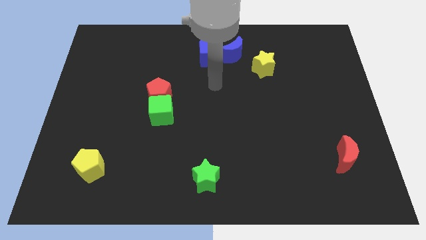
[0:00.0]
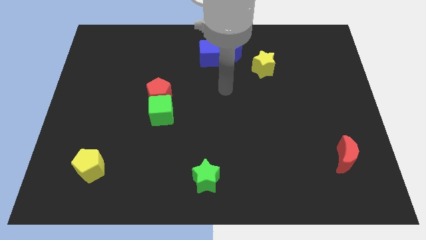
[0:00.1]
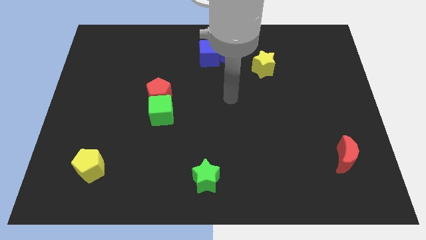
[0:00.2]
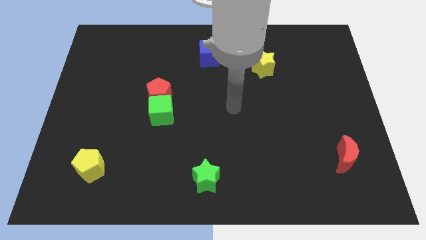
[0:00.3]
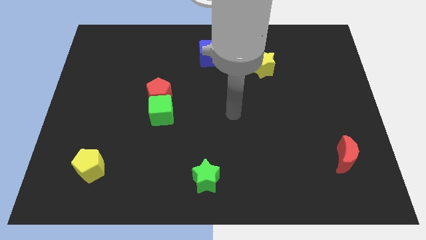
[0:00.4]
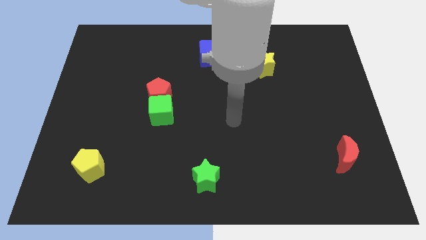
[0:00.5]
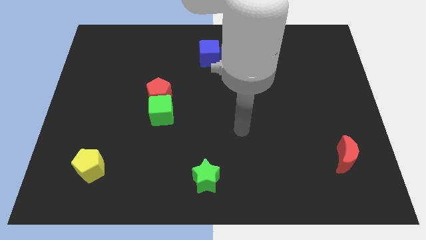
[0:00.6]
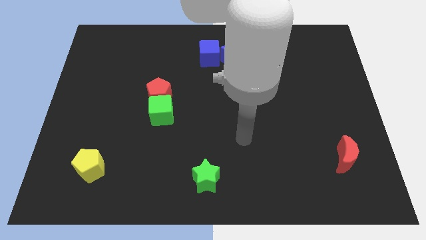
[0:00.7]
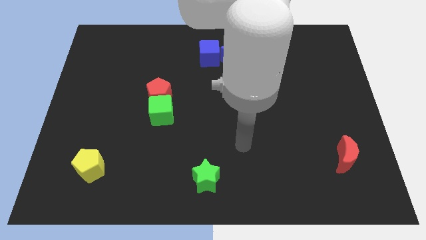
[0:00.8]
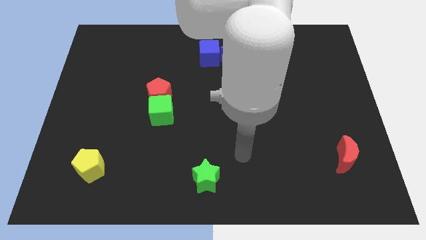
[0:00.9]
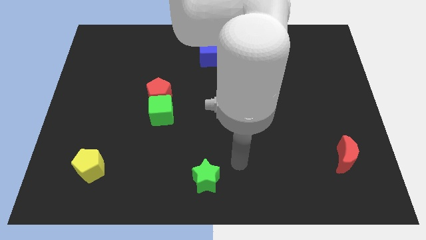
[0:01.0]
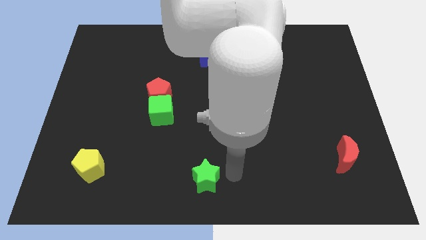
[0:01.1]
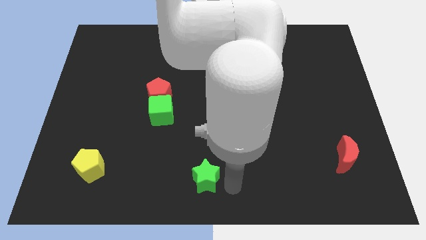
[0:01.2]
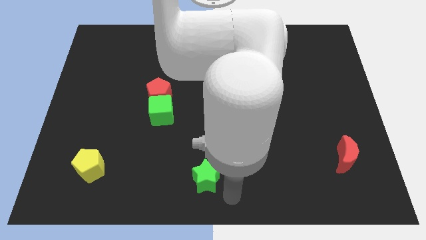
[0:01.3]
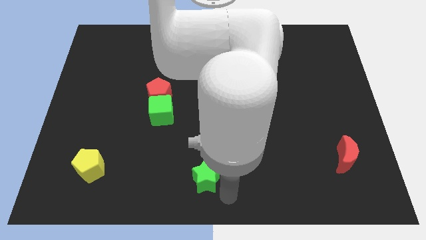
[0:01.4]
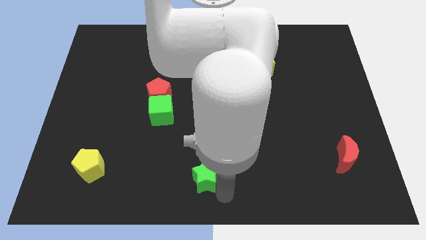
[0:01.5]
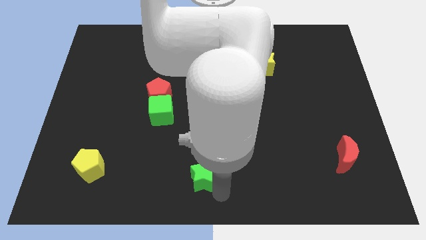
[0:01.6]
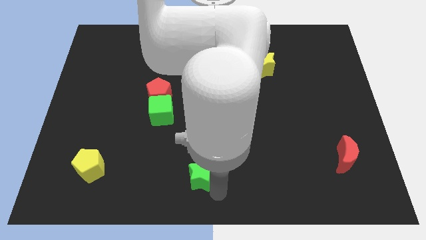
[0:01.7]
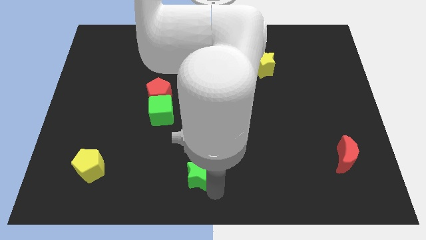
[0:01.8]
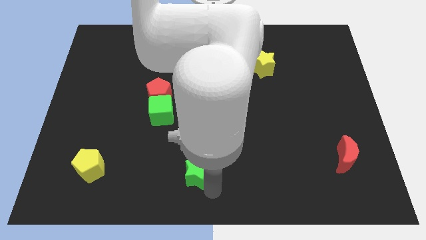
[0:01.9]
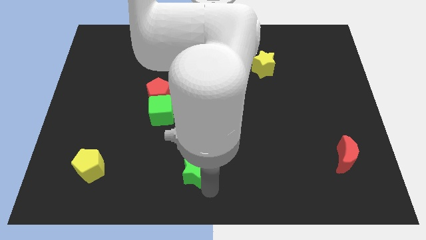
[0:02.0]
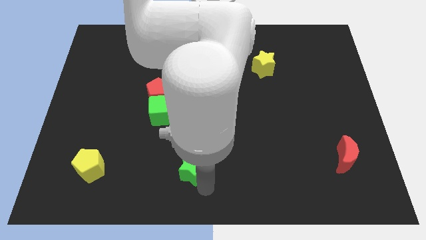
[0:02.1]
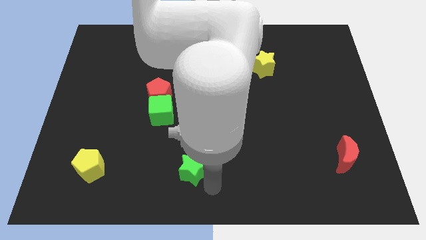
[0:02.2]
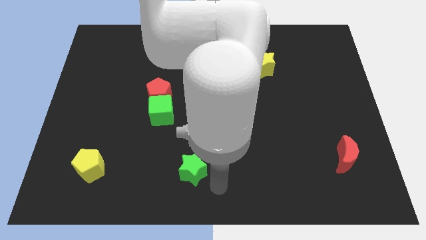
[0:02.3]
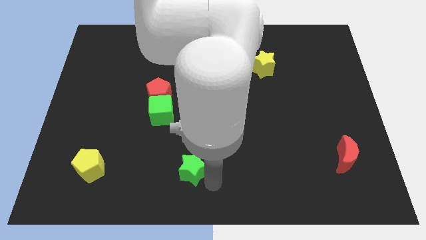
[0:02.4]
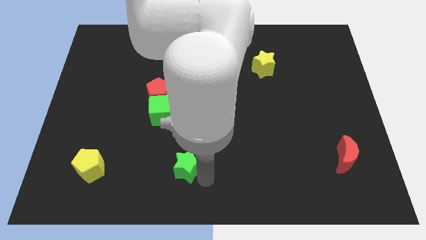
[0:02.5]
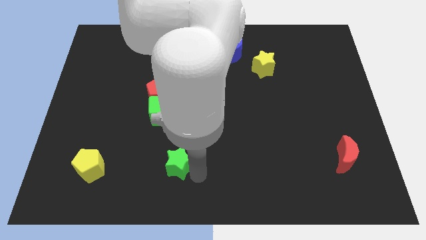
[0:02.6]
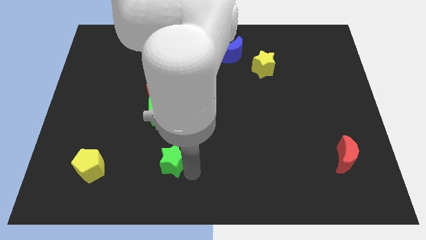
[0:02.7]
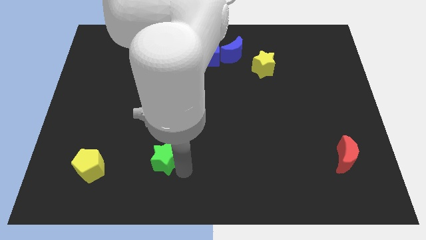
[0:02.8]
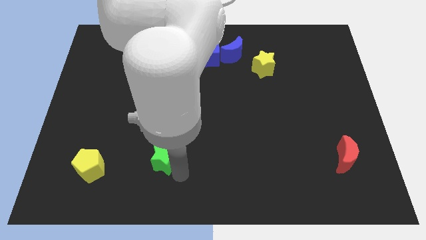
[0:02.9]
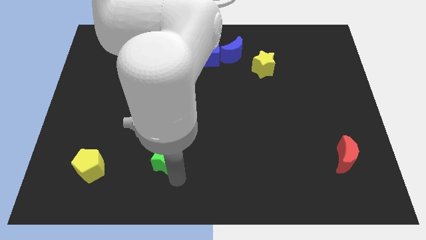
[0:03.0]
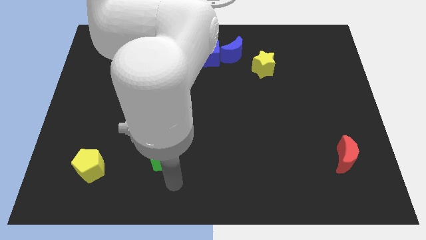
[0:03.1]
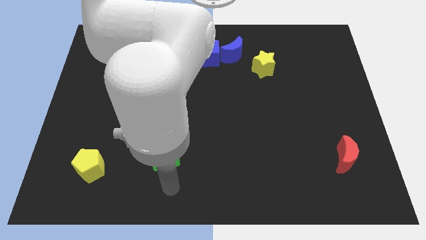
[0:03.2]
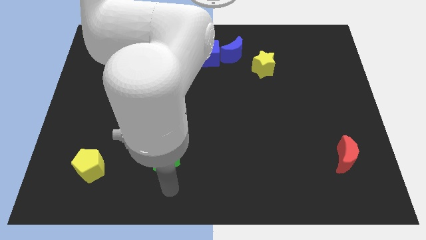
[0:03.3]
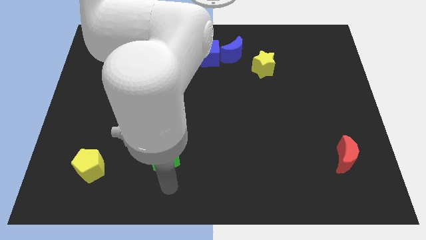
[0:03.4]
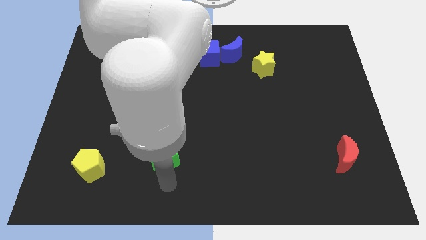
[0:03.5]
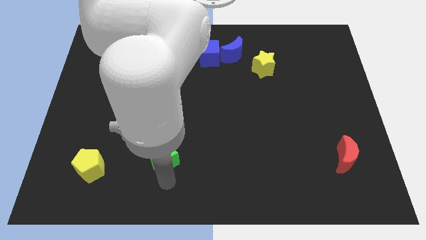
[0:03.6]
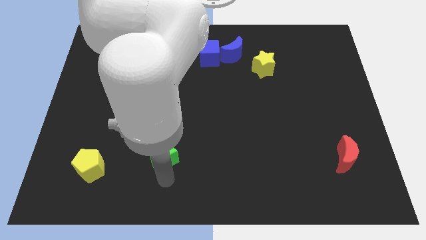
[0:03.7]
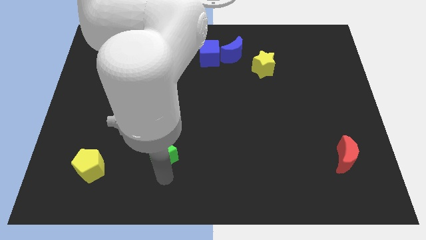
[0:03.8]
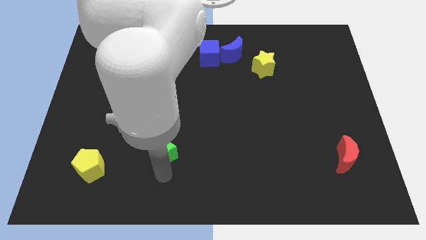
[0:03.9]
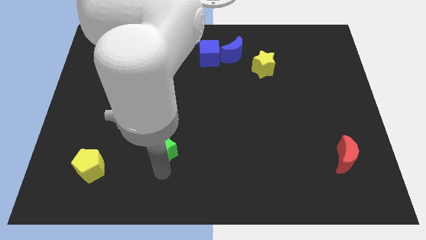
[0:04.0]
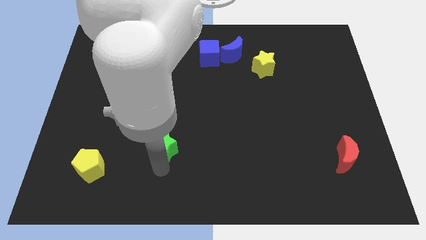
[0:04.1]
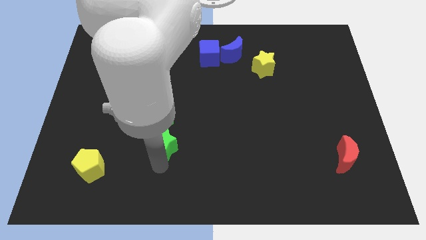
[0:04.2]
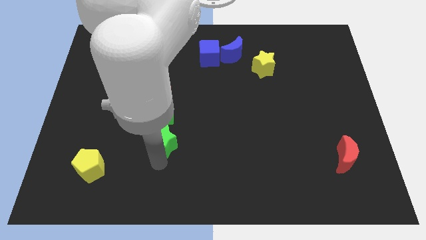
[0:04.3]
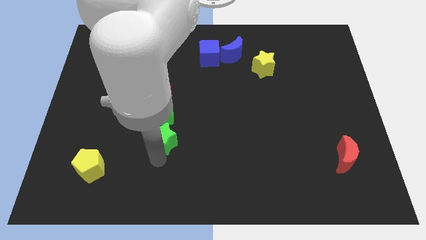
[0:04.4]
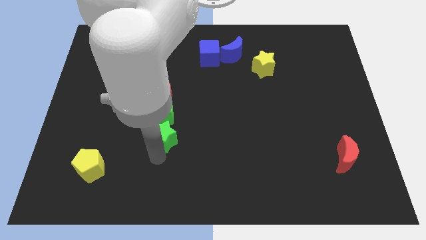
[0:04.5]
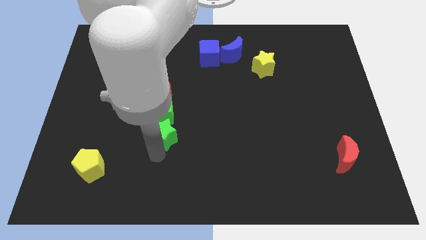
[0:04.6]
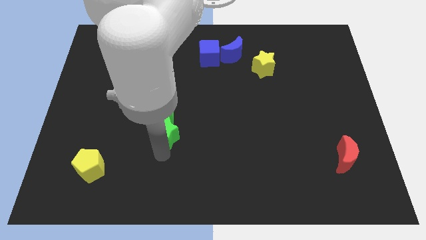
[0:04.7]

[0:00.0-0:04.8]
slide the green star to the green cube

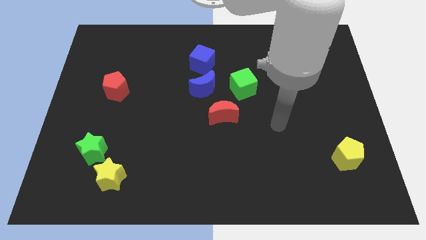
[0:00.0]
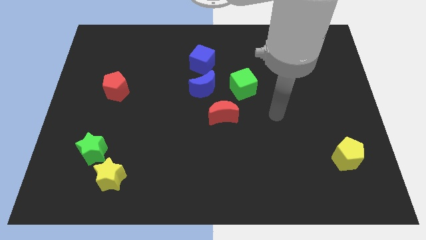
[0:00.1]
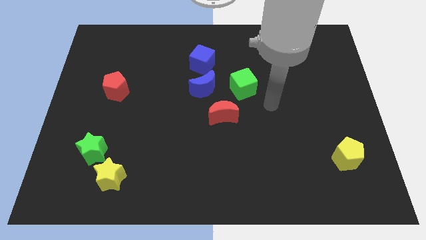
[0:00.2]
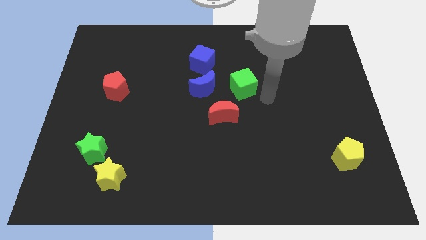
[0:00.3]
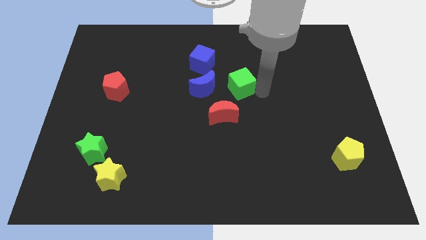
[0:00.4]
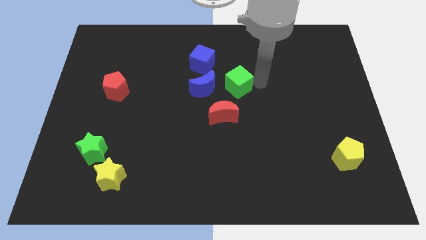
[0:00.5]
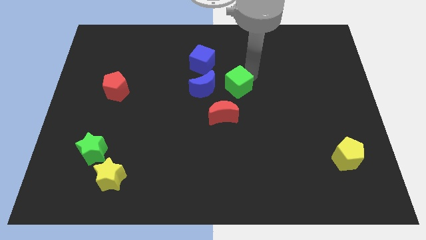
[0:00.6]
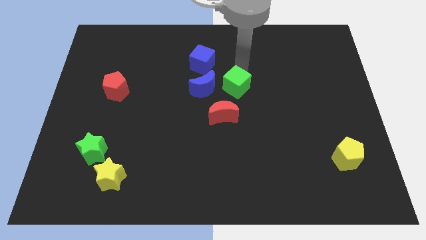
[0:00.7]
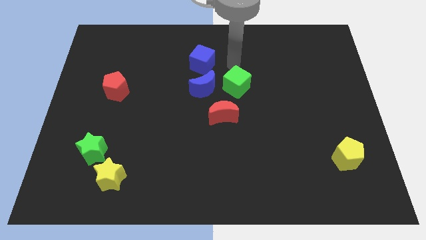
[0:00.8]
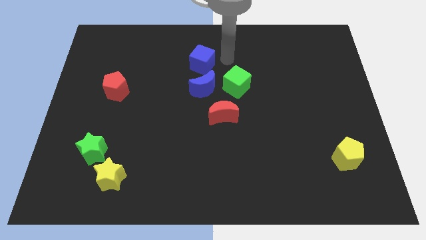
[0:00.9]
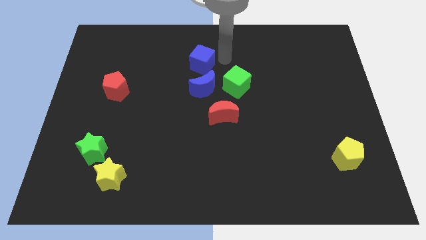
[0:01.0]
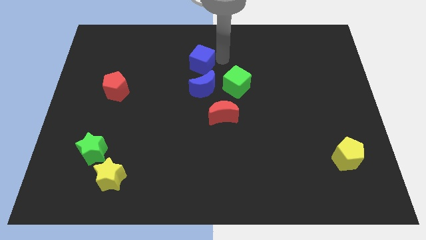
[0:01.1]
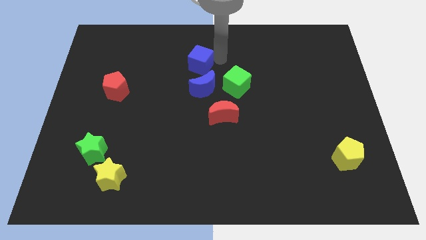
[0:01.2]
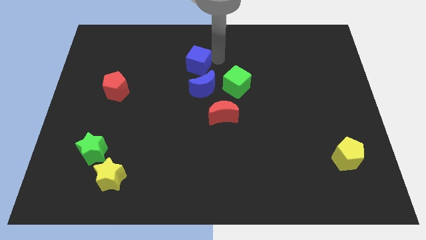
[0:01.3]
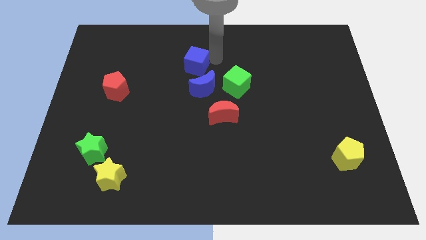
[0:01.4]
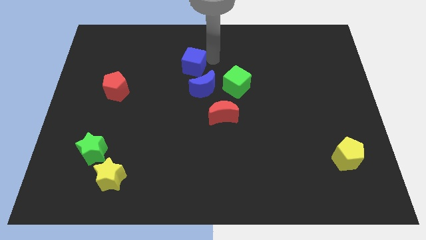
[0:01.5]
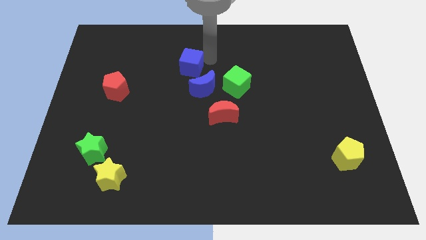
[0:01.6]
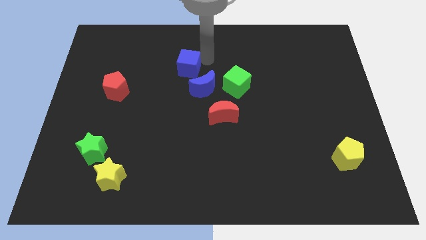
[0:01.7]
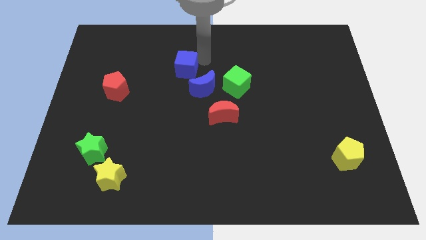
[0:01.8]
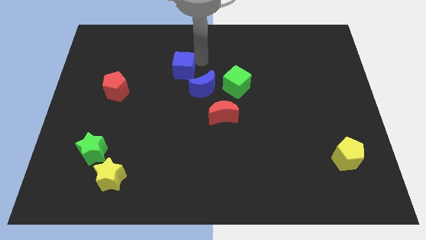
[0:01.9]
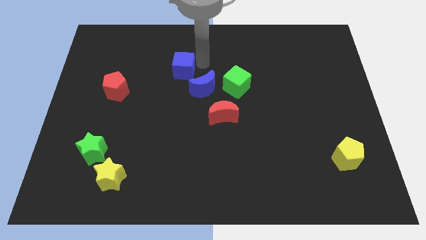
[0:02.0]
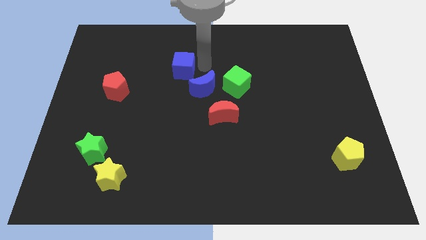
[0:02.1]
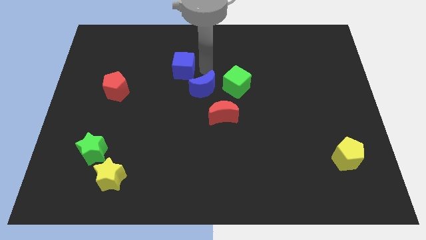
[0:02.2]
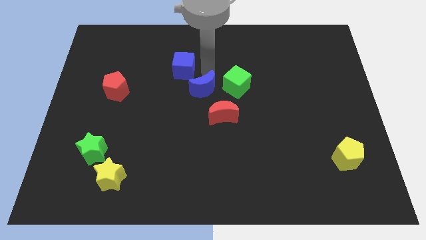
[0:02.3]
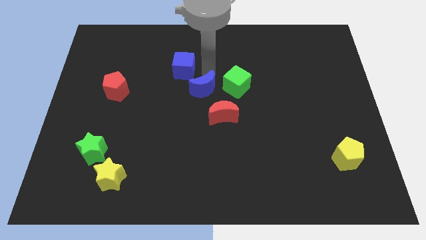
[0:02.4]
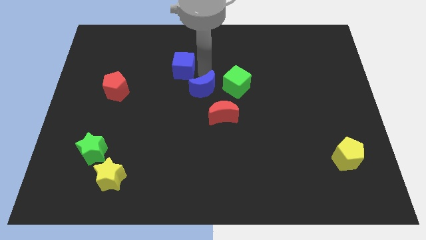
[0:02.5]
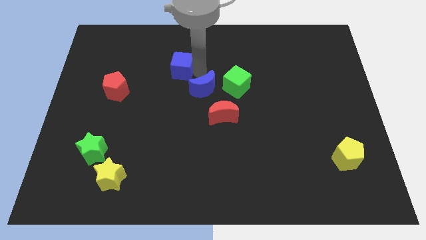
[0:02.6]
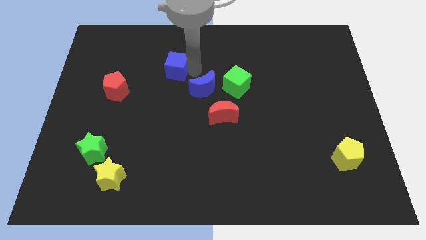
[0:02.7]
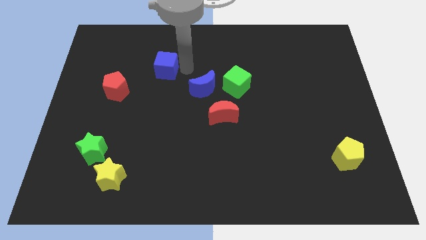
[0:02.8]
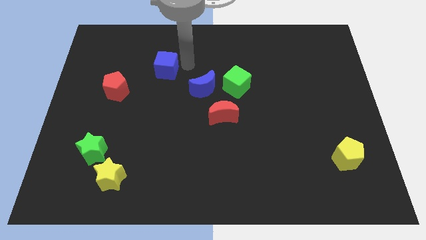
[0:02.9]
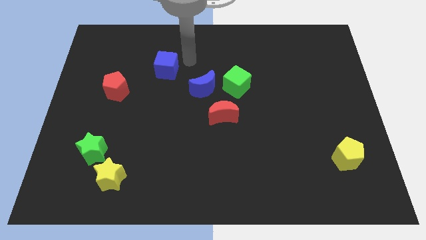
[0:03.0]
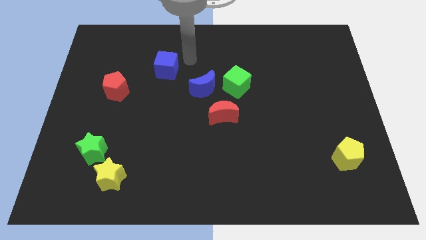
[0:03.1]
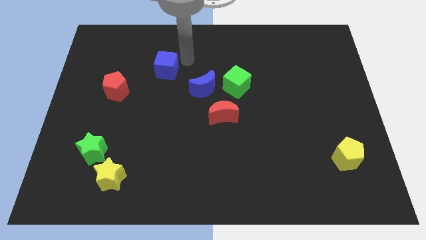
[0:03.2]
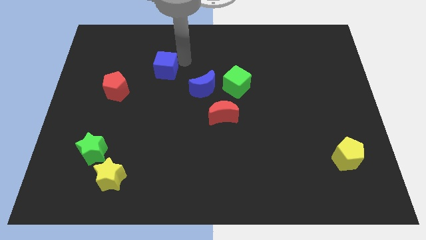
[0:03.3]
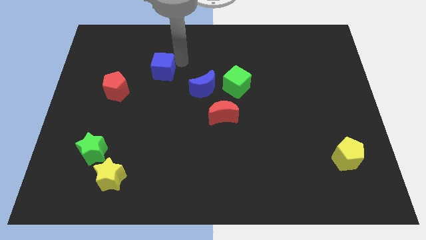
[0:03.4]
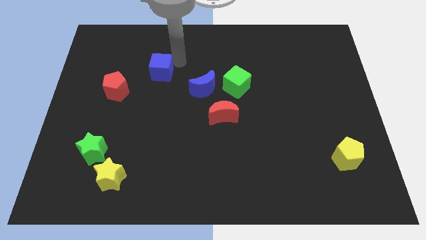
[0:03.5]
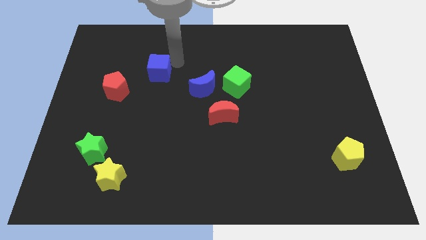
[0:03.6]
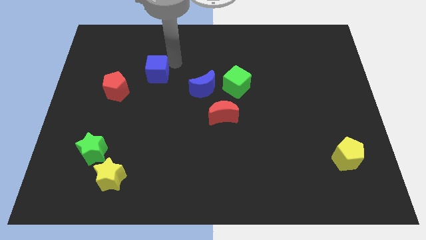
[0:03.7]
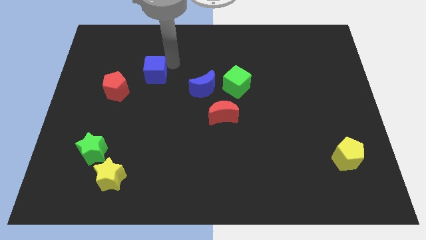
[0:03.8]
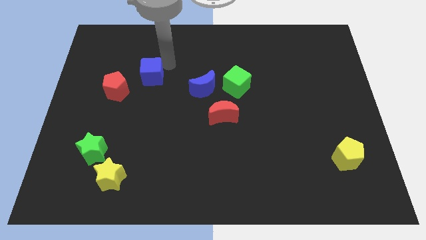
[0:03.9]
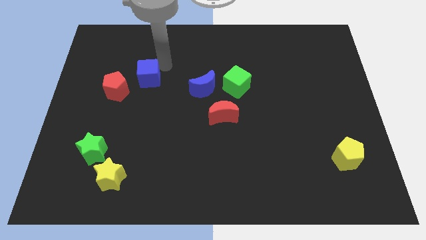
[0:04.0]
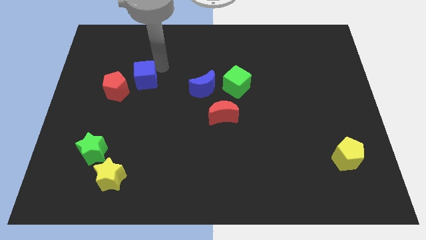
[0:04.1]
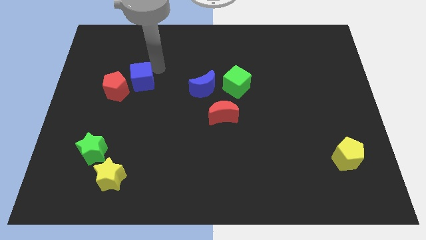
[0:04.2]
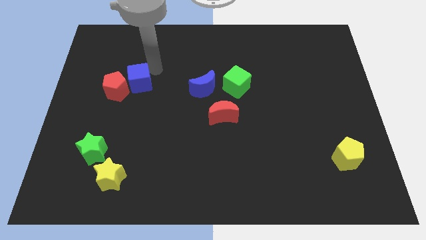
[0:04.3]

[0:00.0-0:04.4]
push the blue cube next to the red pentagon
